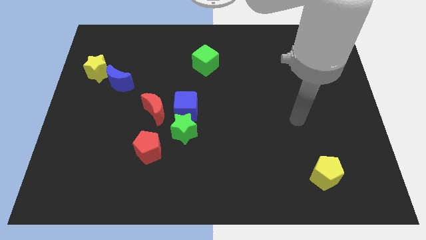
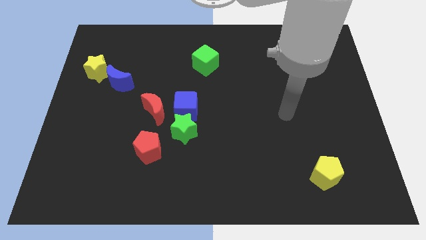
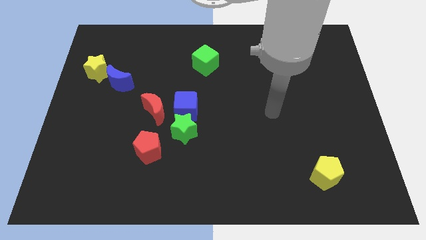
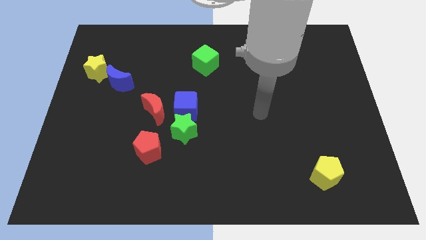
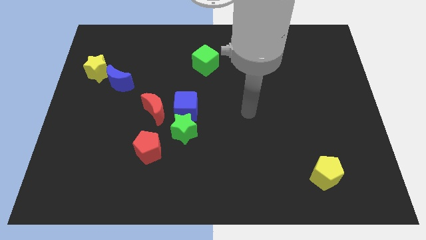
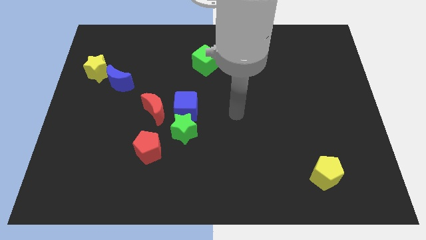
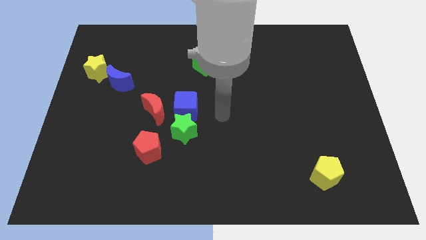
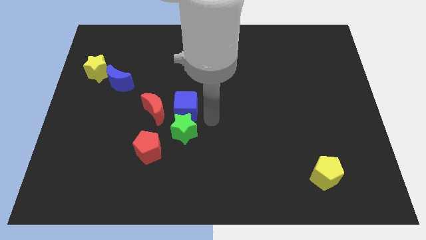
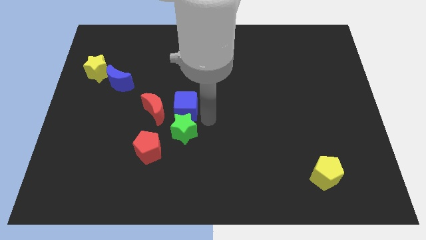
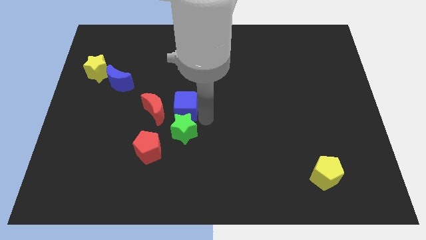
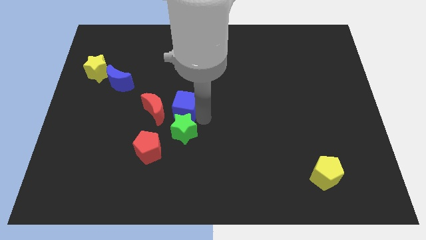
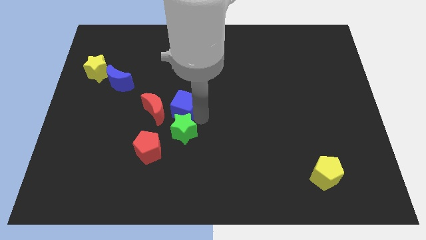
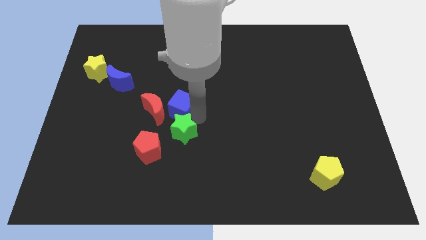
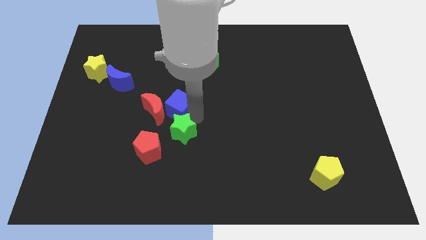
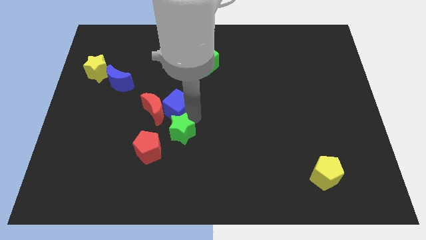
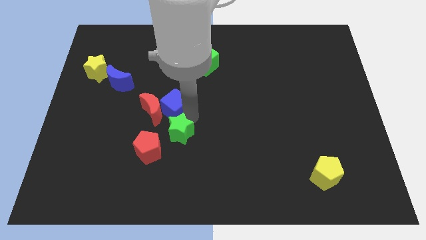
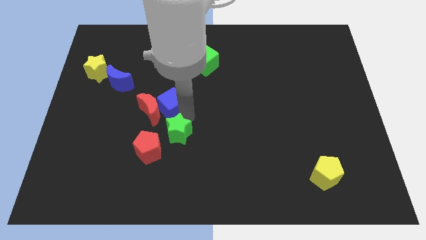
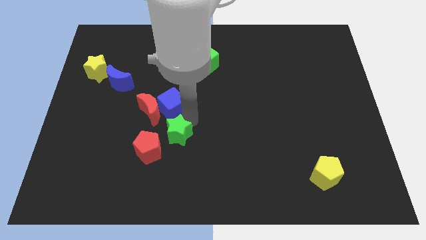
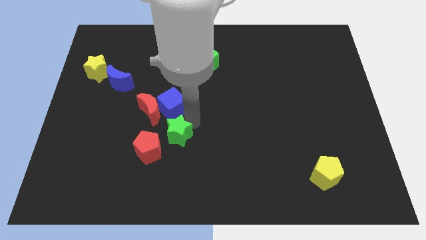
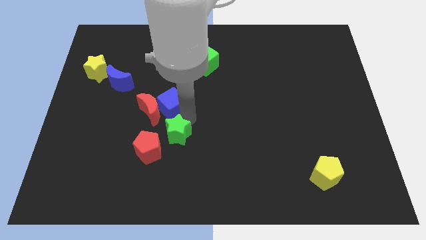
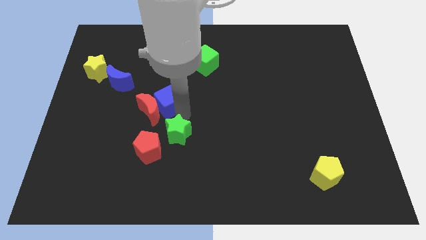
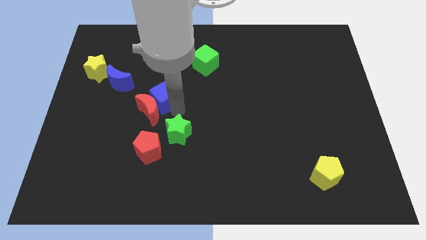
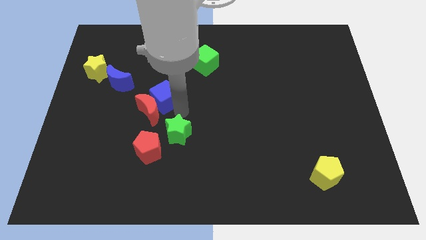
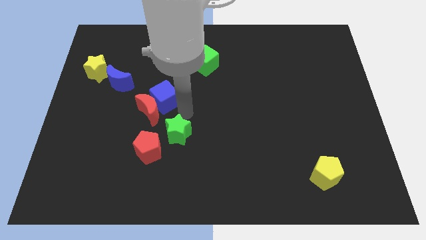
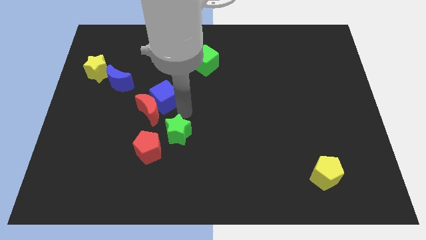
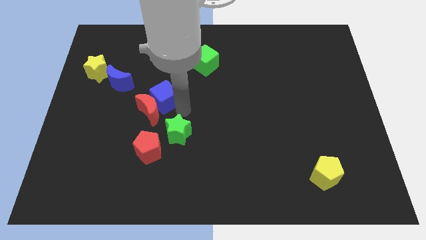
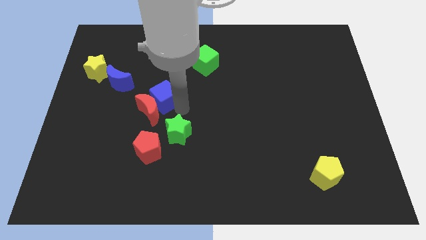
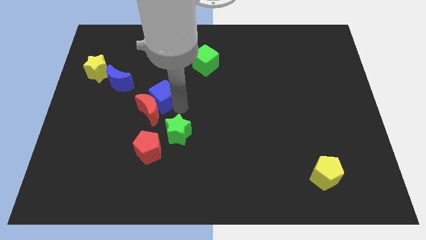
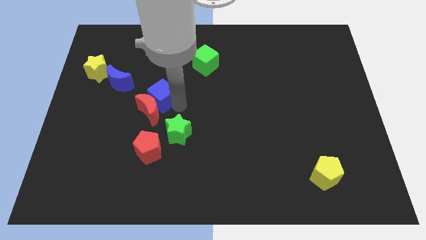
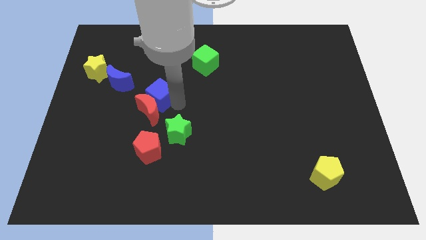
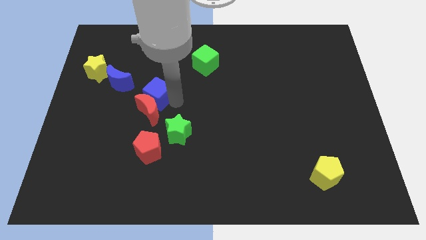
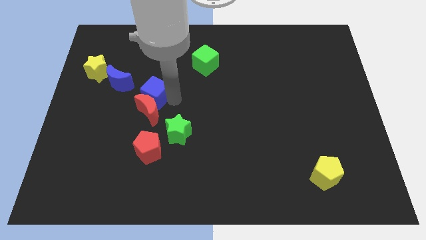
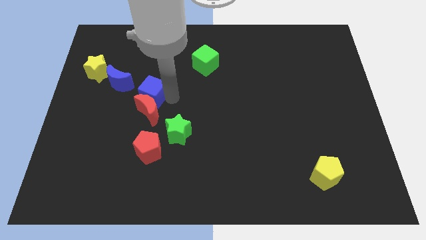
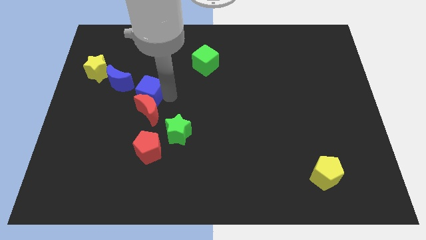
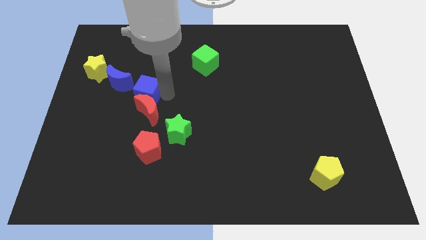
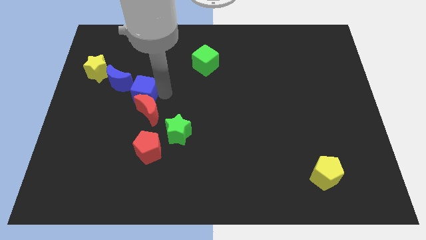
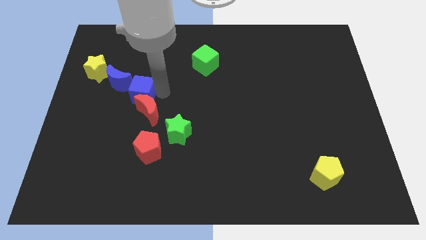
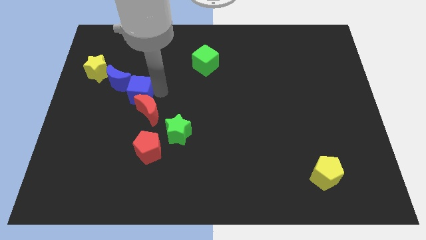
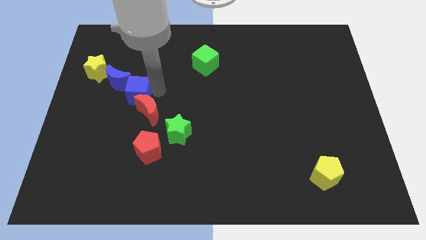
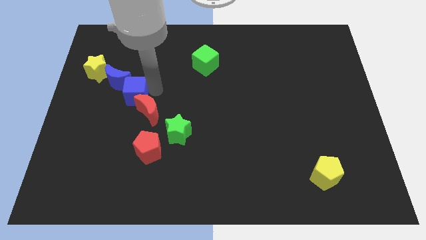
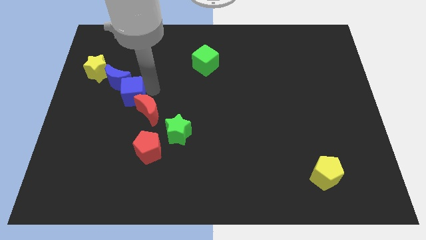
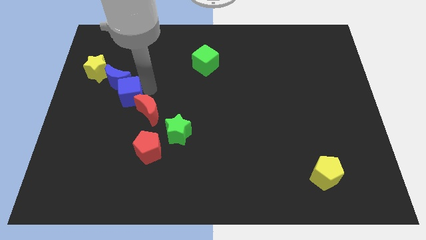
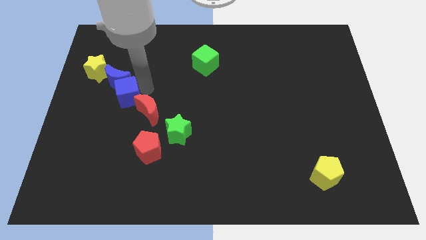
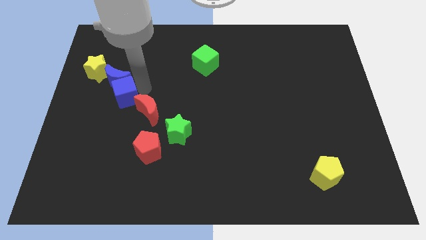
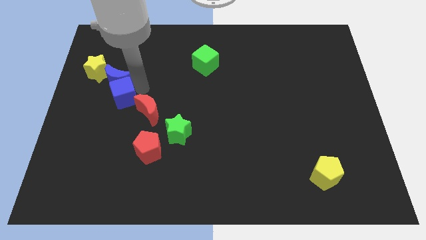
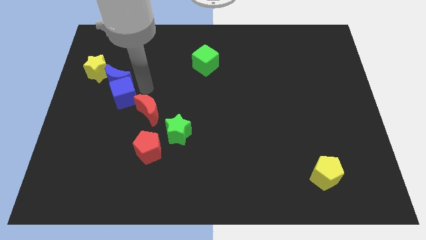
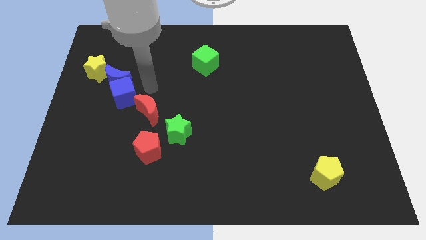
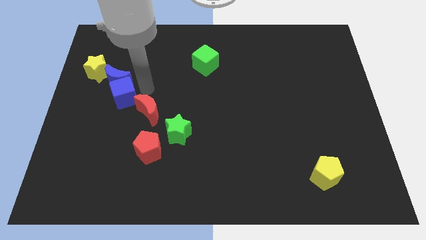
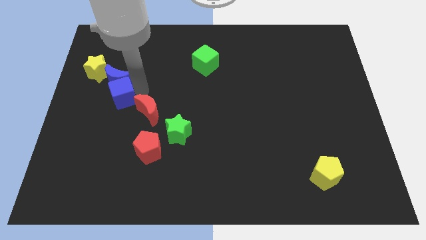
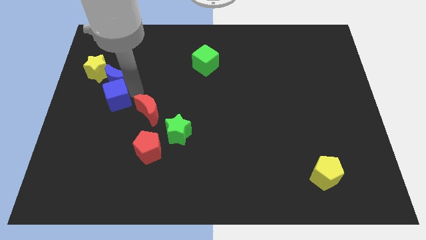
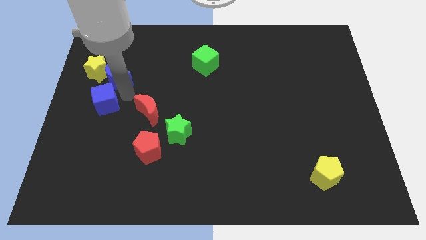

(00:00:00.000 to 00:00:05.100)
put the blue cube to the left side

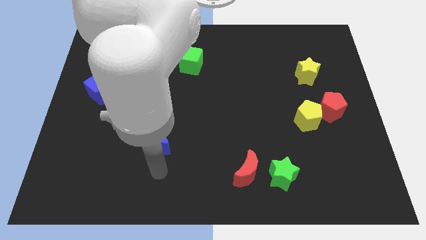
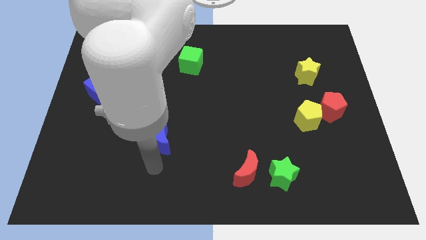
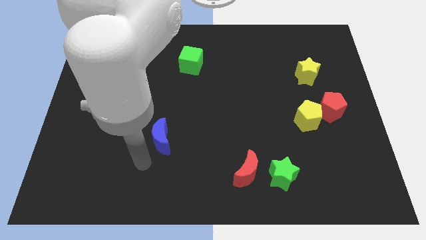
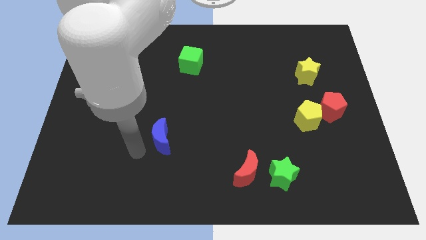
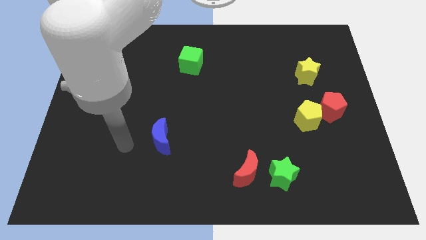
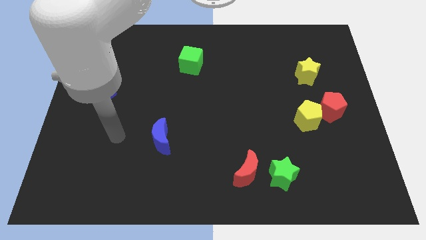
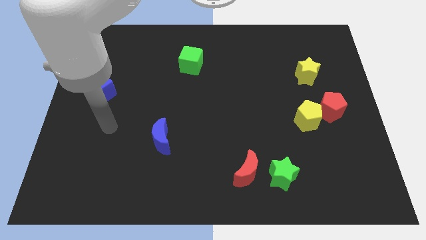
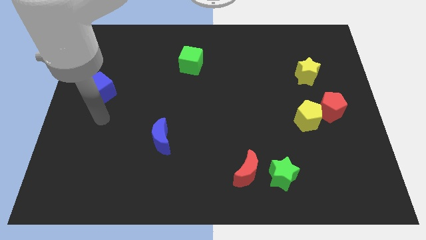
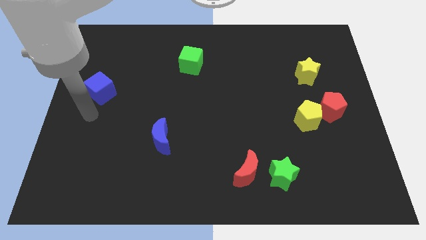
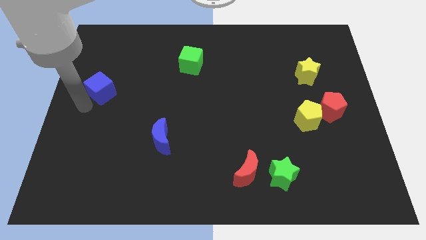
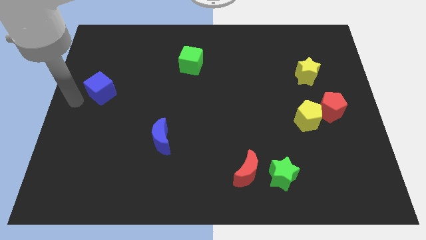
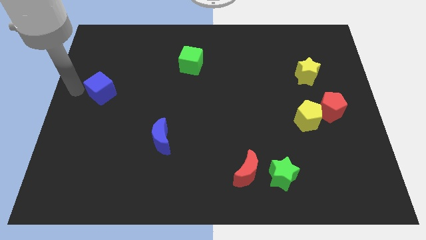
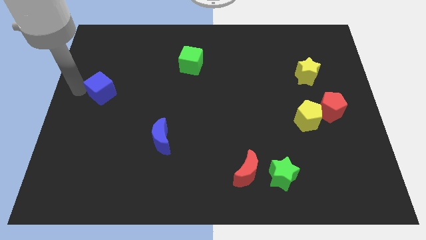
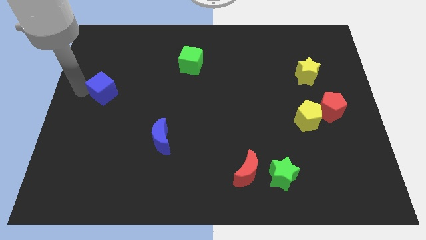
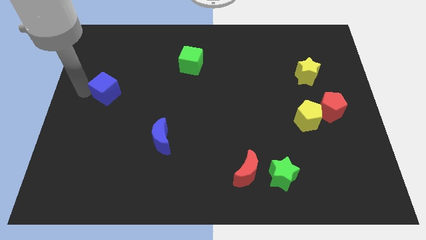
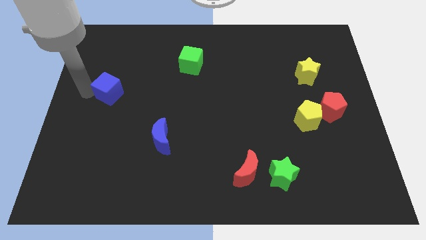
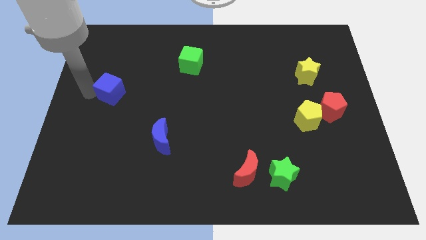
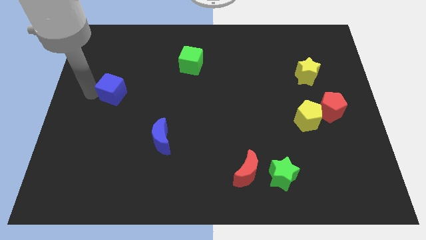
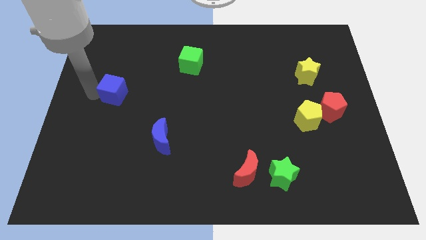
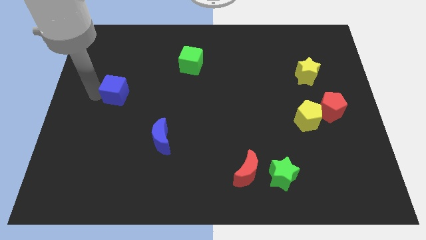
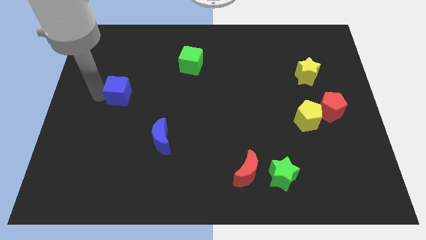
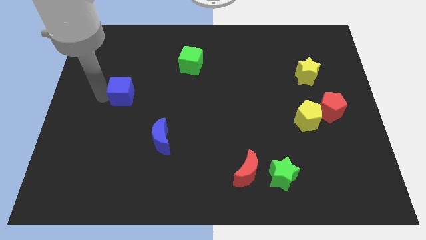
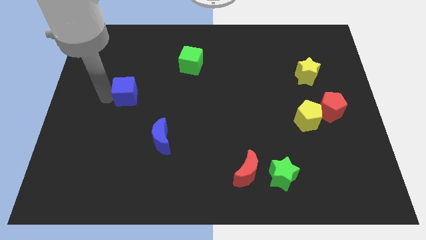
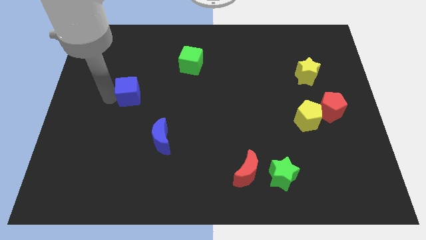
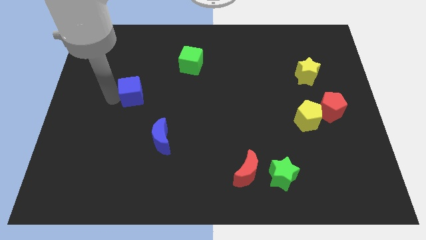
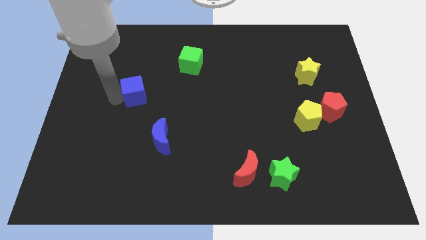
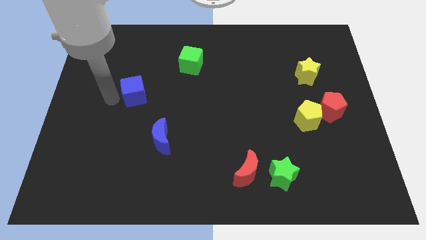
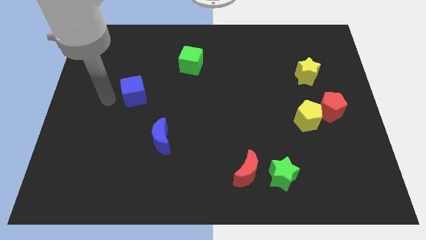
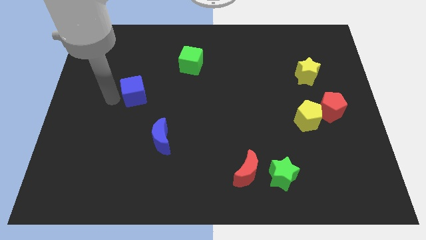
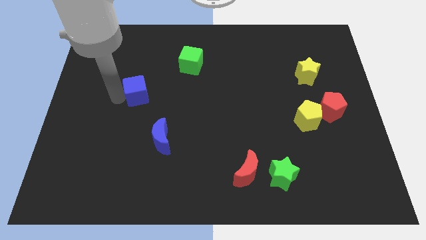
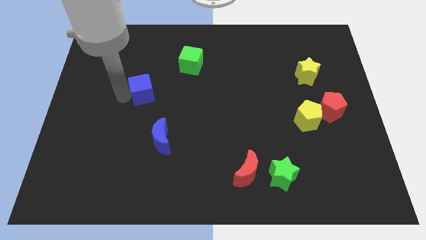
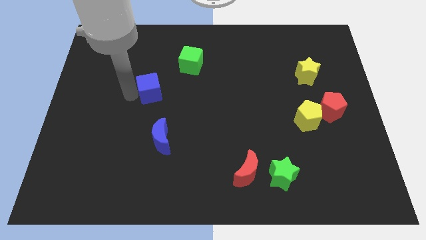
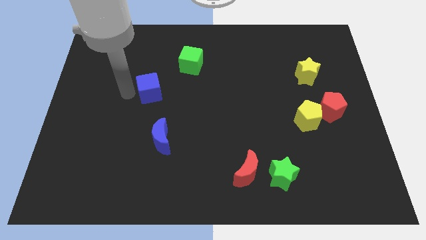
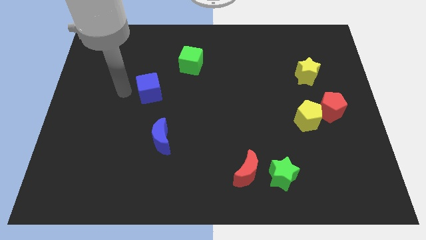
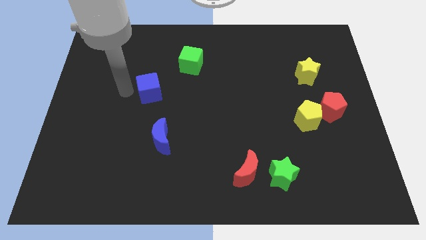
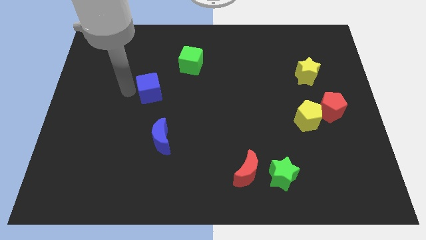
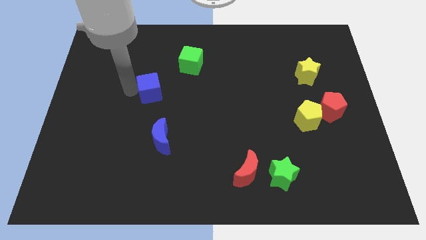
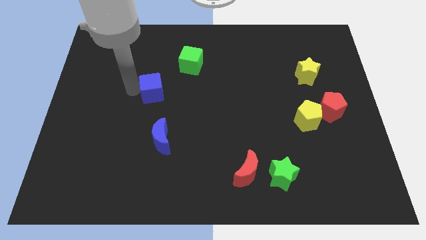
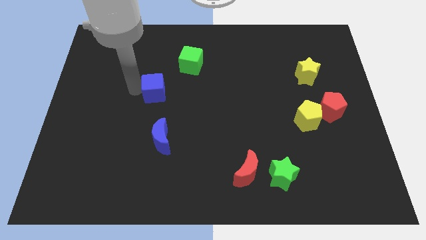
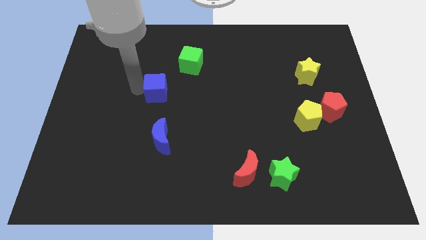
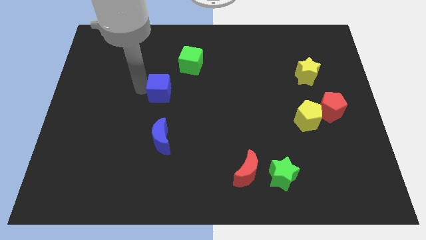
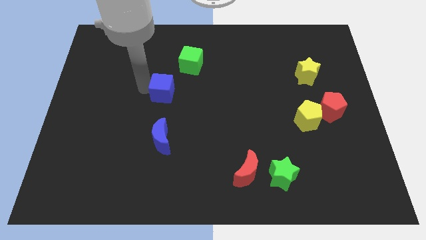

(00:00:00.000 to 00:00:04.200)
slide the blue cube to the middle of the board
